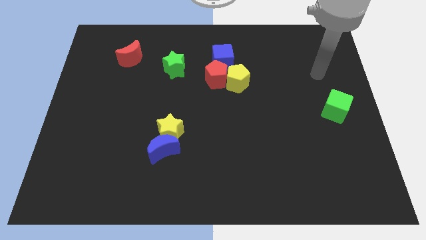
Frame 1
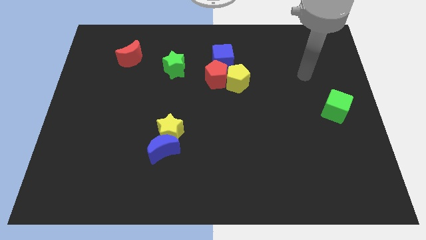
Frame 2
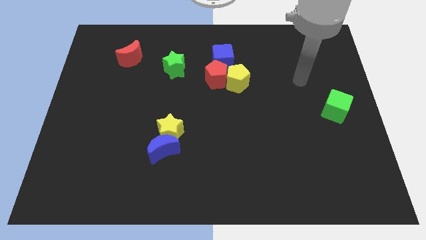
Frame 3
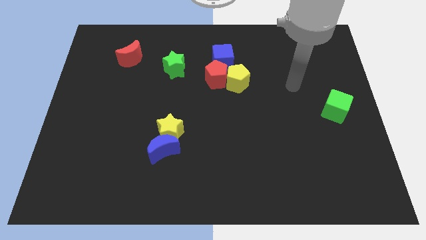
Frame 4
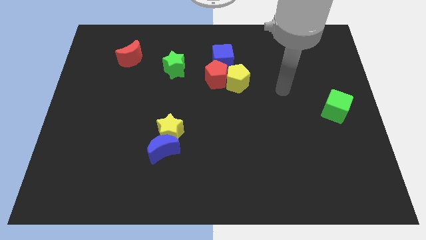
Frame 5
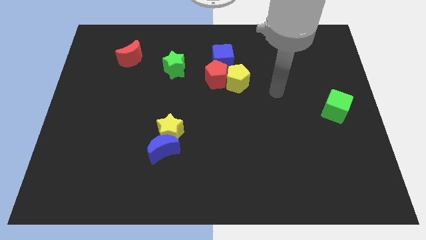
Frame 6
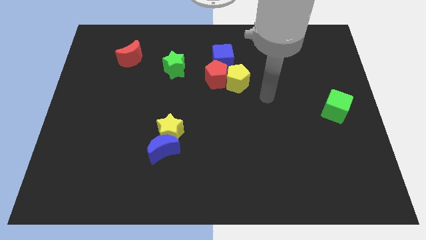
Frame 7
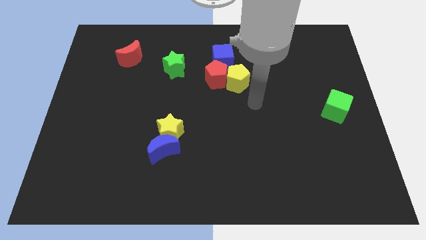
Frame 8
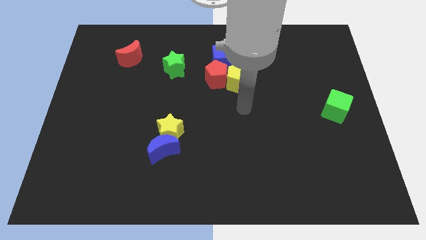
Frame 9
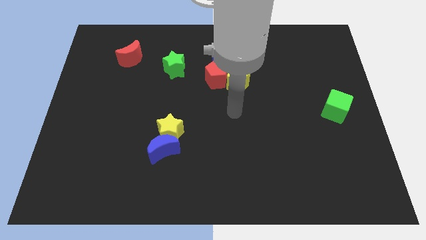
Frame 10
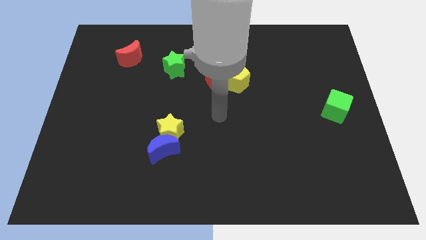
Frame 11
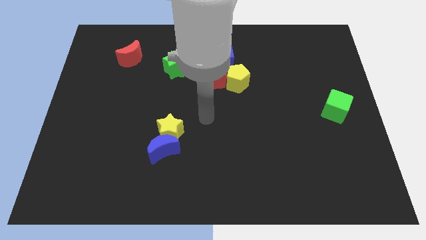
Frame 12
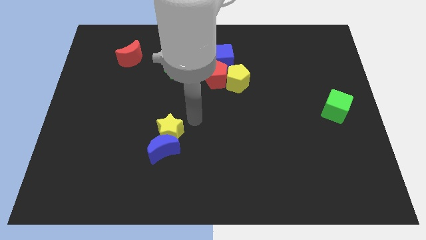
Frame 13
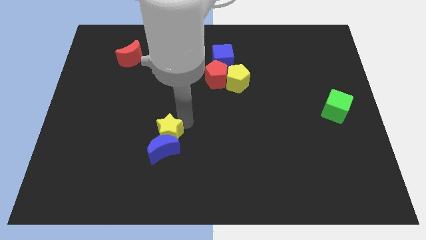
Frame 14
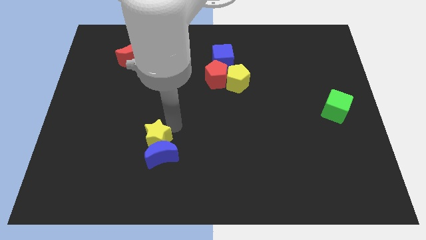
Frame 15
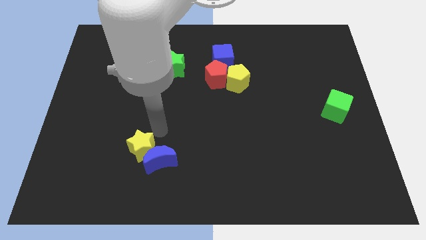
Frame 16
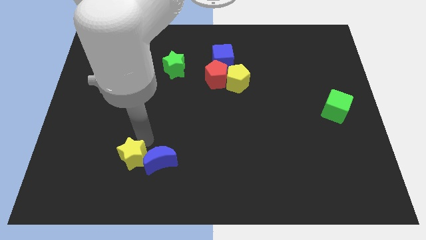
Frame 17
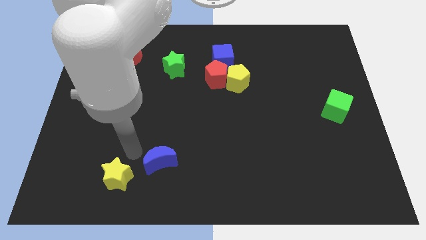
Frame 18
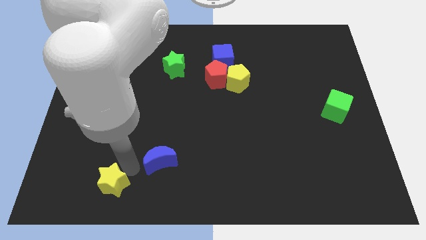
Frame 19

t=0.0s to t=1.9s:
pull the blue moon apart from the yellow star

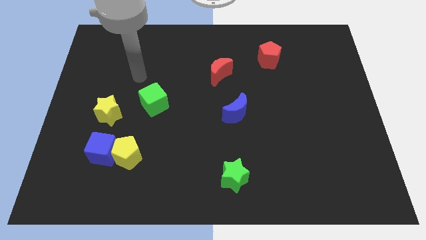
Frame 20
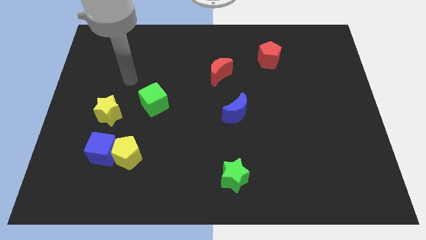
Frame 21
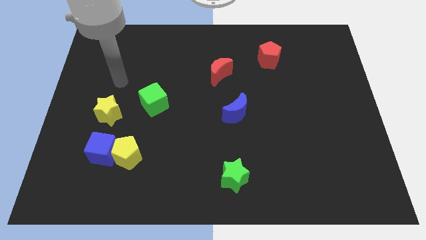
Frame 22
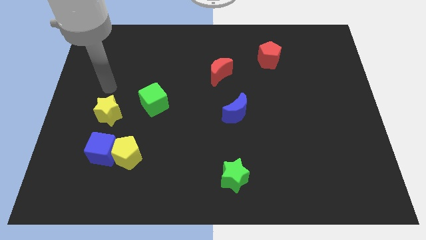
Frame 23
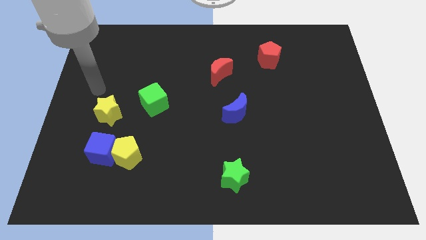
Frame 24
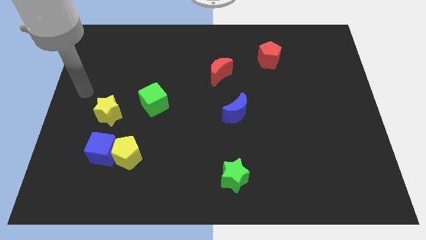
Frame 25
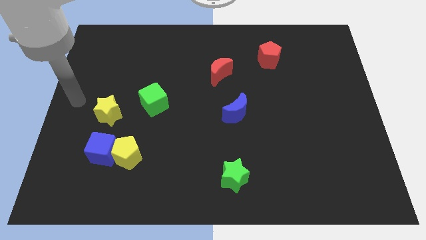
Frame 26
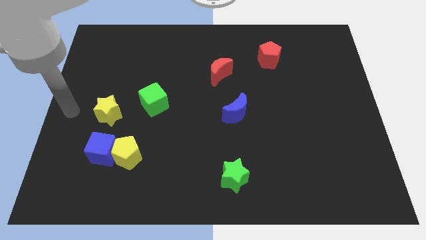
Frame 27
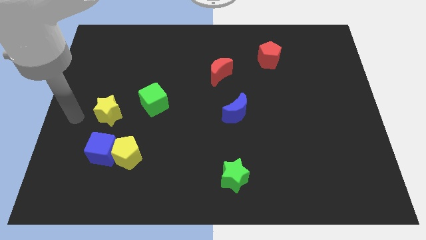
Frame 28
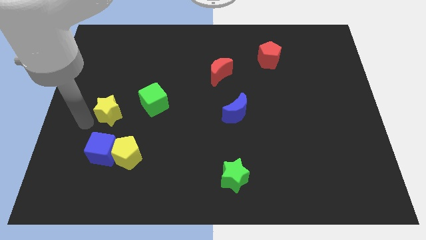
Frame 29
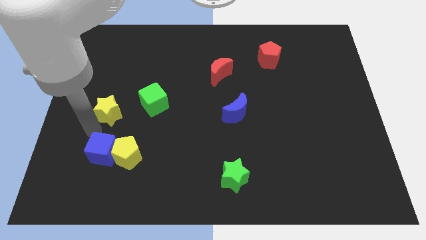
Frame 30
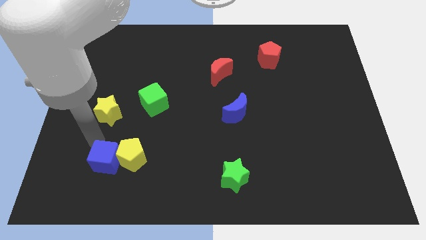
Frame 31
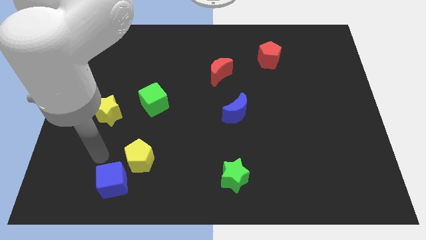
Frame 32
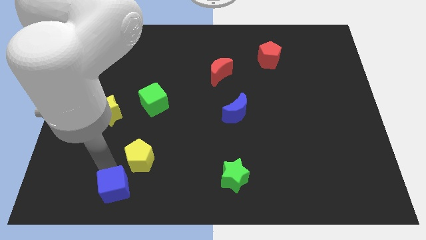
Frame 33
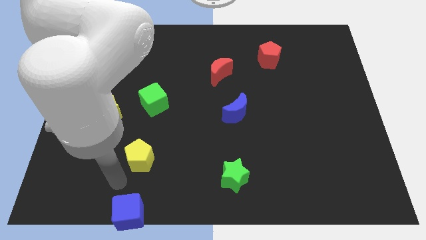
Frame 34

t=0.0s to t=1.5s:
move the yellow pentagon away from the blue cube

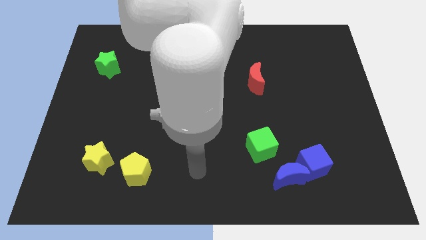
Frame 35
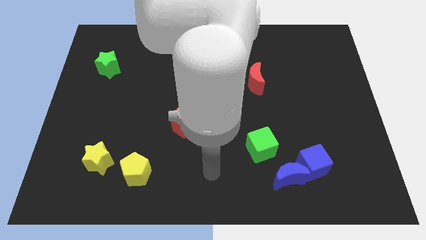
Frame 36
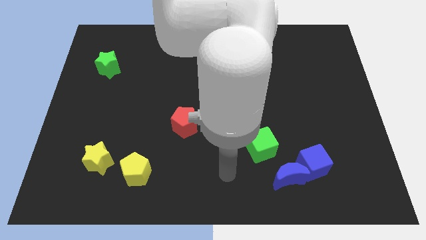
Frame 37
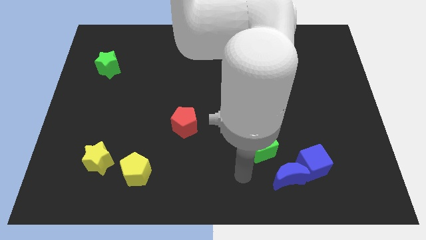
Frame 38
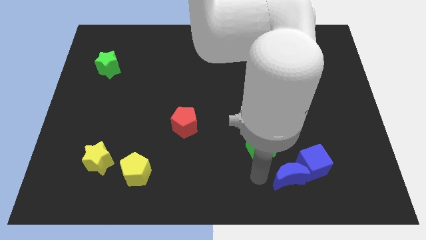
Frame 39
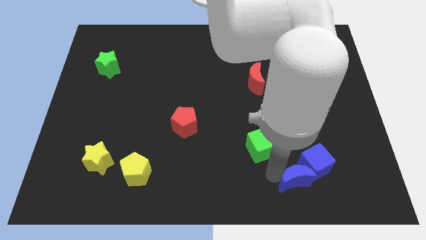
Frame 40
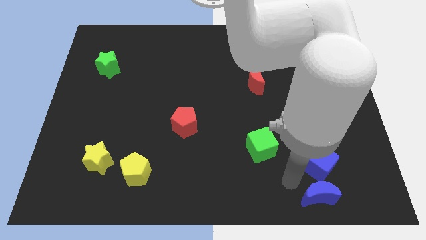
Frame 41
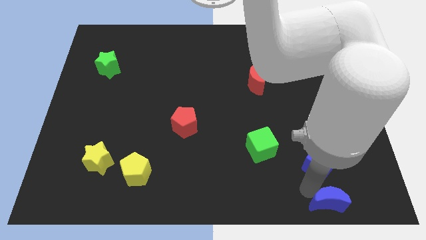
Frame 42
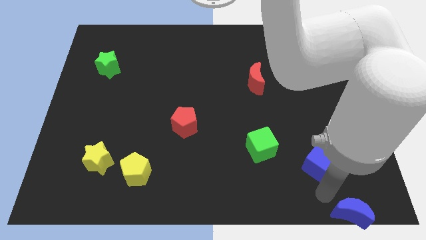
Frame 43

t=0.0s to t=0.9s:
pull the blue cube apart from the blue moon

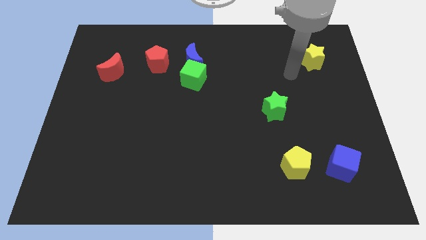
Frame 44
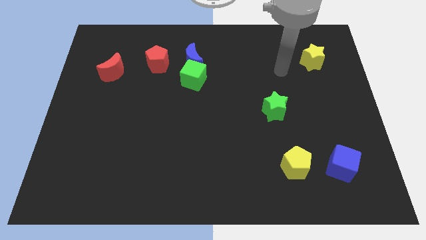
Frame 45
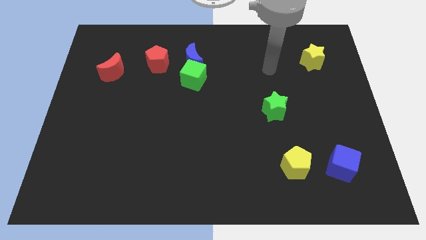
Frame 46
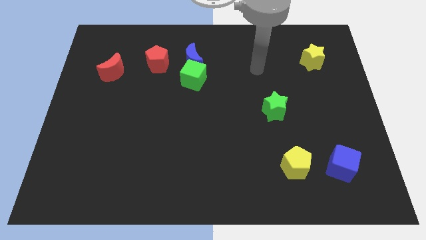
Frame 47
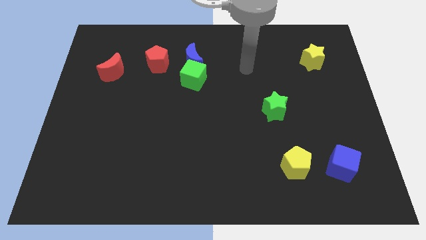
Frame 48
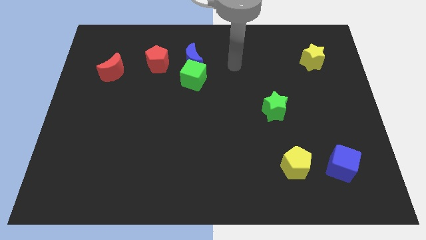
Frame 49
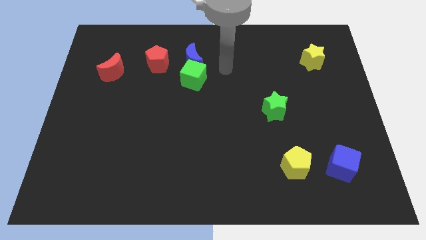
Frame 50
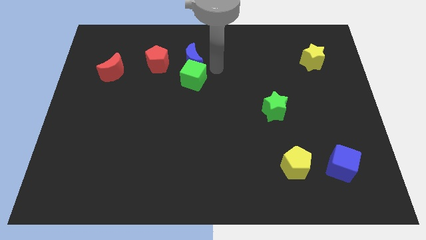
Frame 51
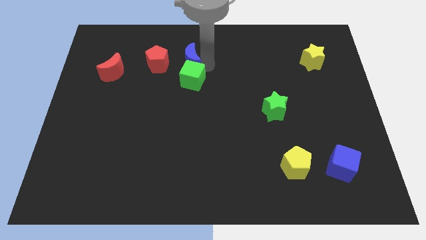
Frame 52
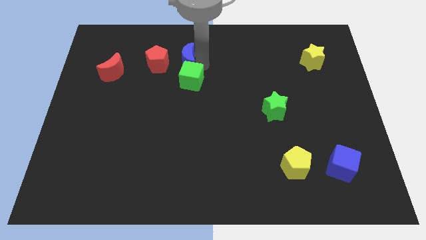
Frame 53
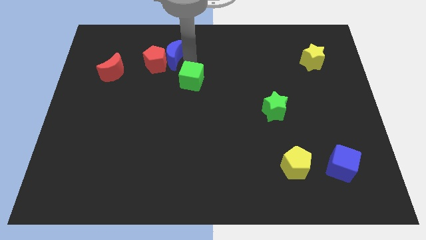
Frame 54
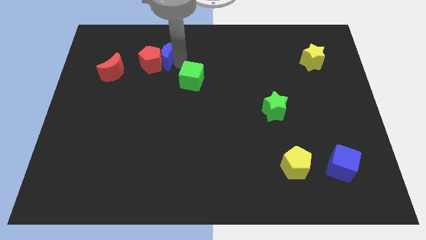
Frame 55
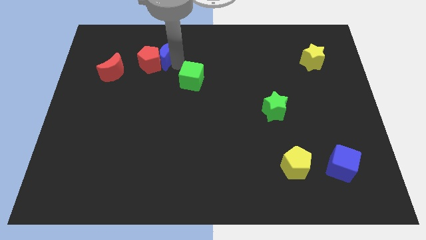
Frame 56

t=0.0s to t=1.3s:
pull the green cube apart from the blue moon

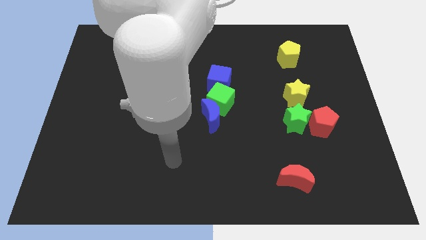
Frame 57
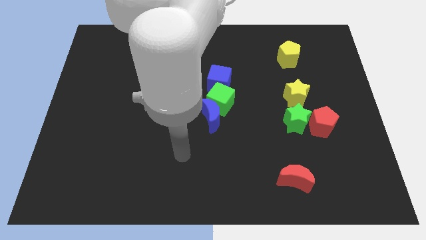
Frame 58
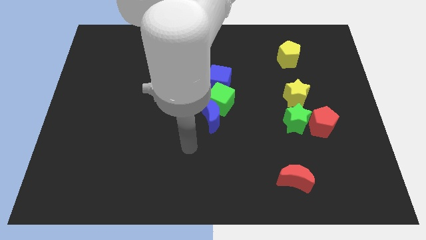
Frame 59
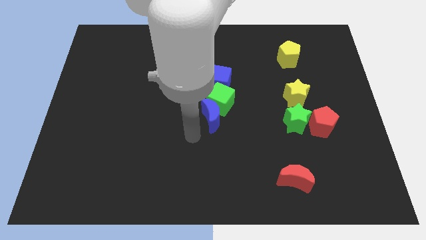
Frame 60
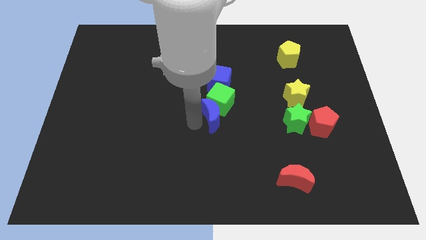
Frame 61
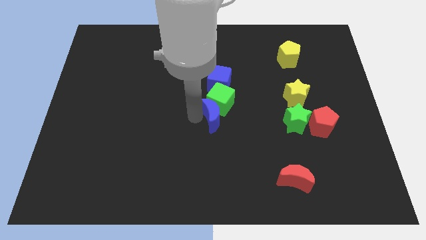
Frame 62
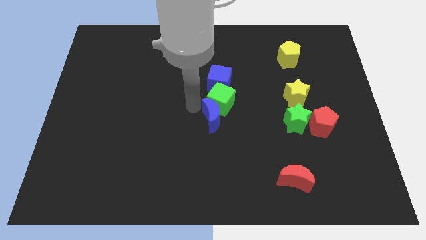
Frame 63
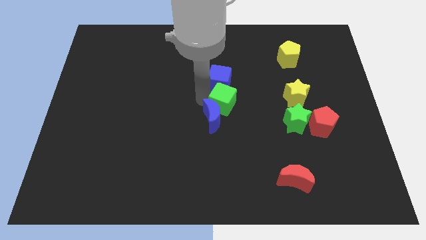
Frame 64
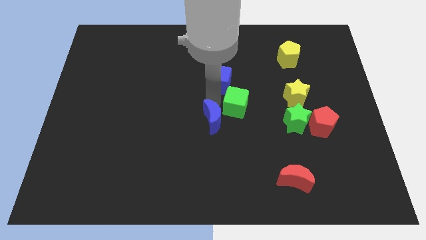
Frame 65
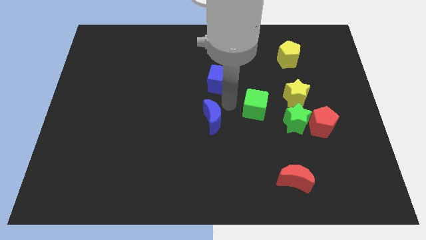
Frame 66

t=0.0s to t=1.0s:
pull the blue moon apart from the green cube

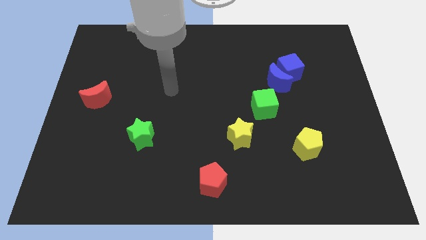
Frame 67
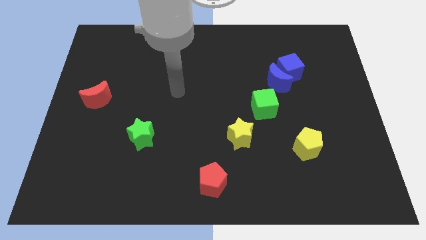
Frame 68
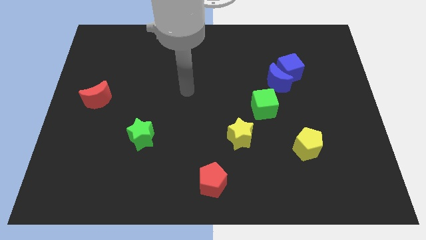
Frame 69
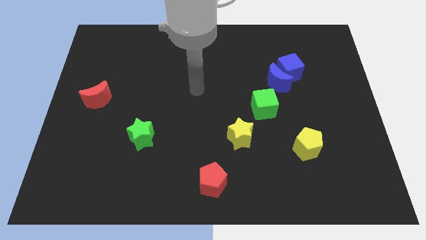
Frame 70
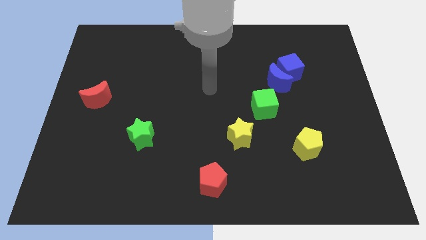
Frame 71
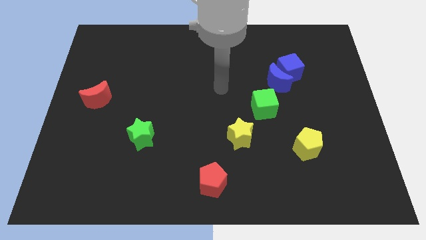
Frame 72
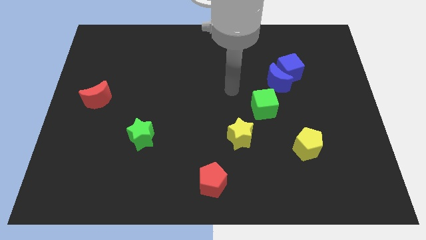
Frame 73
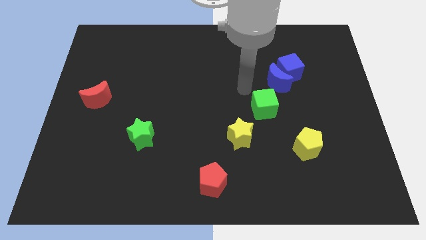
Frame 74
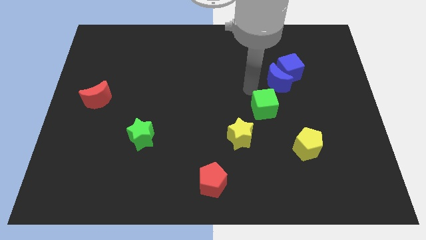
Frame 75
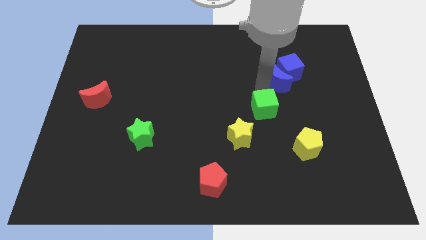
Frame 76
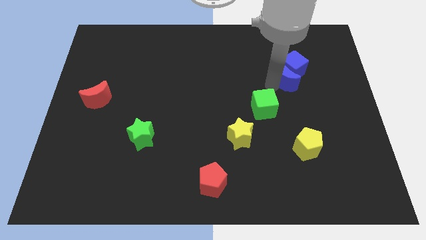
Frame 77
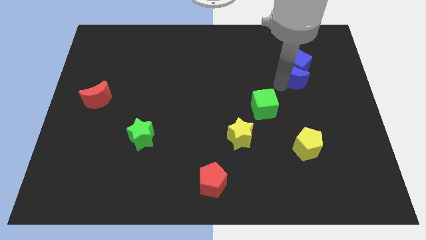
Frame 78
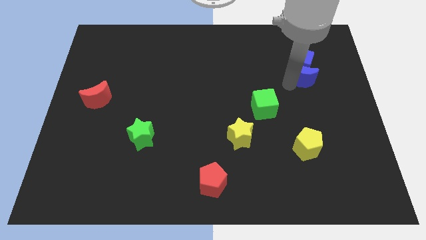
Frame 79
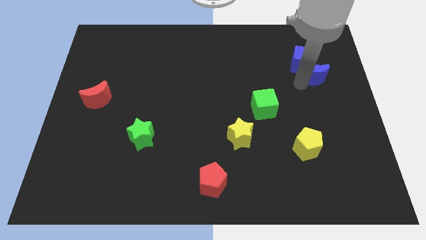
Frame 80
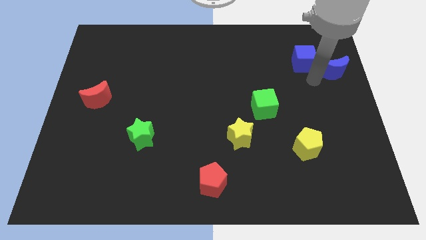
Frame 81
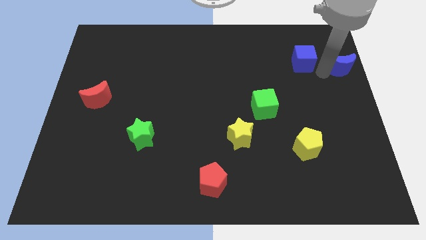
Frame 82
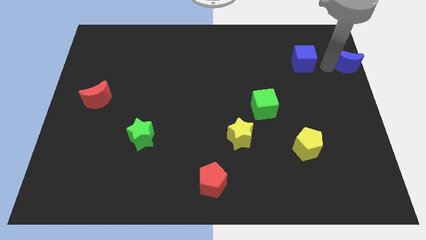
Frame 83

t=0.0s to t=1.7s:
separate the blue cube from the blue moon

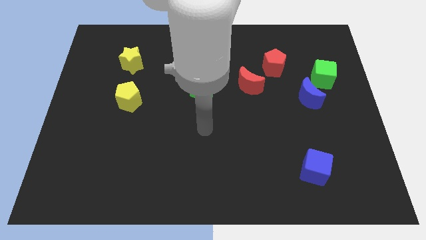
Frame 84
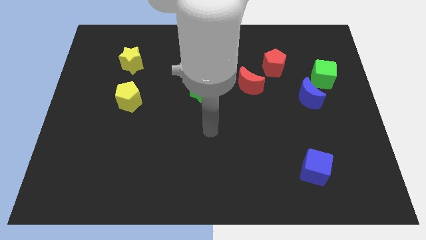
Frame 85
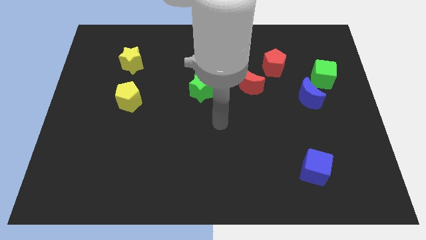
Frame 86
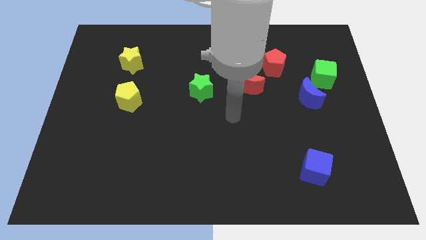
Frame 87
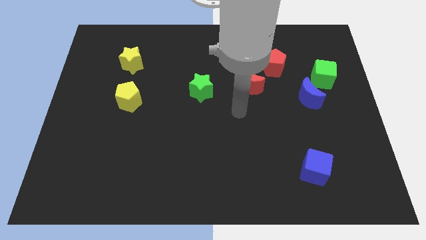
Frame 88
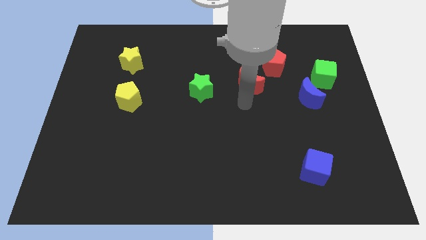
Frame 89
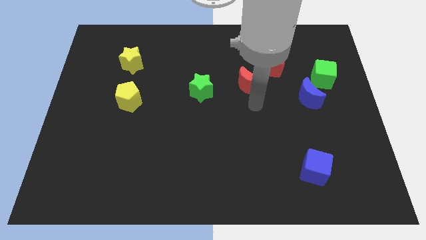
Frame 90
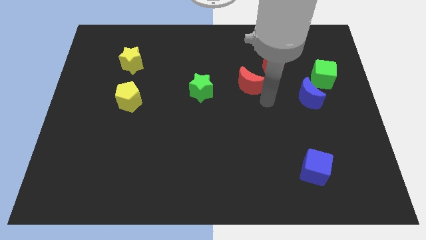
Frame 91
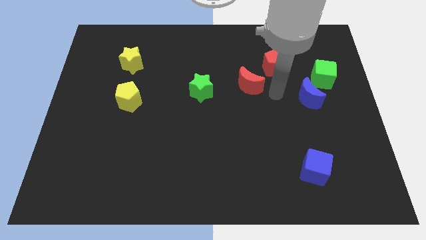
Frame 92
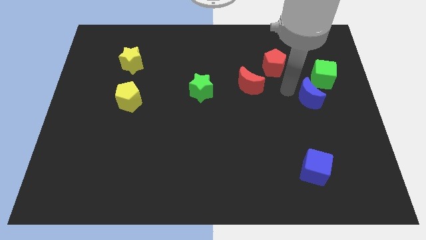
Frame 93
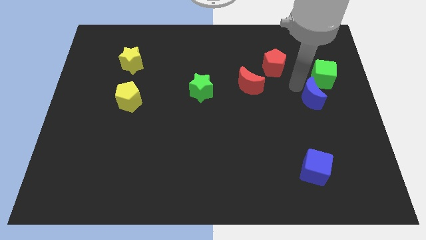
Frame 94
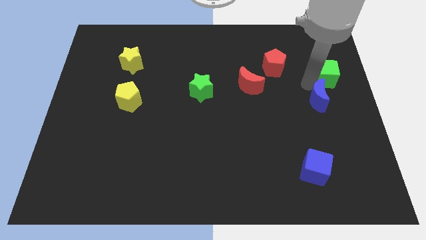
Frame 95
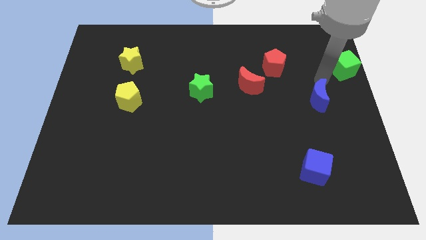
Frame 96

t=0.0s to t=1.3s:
move the blue moon away from the green cube
